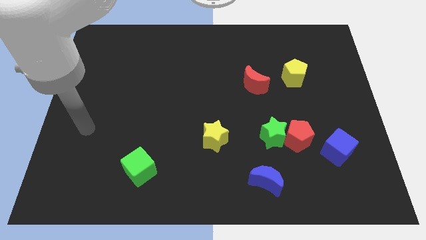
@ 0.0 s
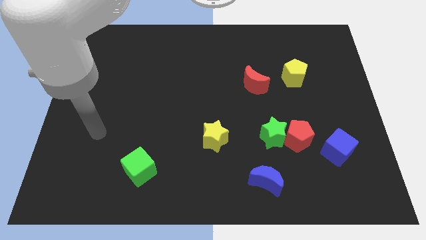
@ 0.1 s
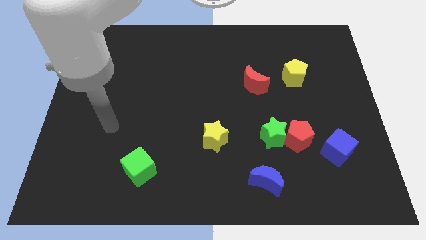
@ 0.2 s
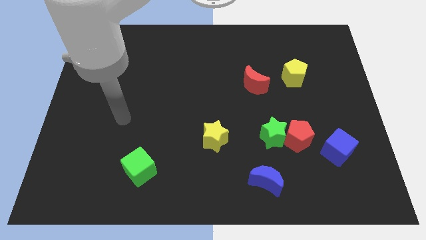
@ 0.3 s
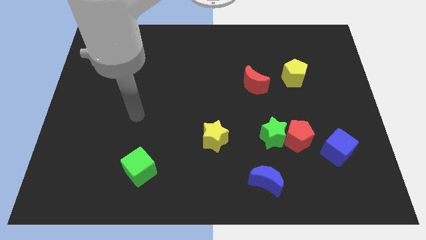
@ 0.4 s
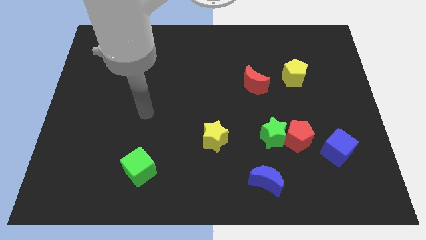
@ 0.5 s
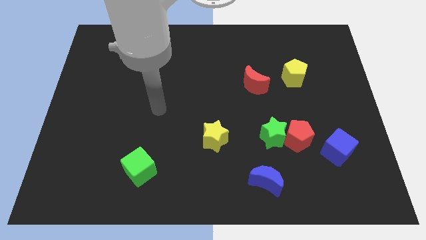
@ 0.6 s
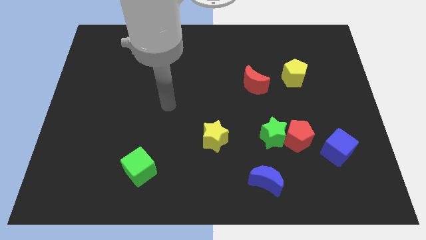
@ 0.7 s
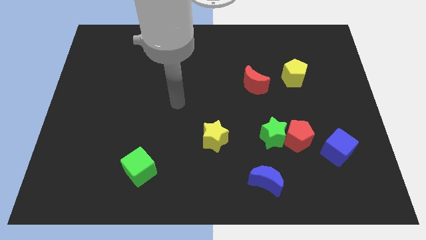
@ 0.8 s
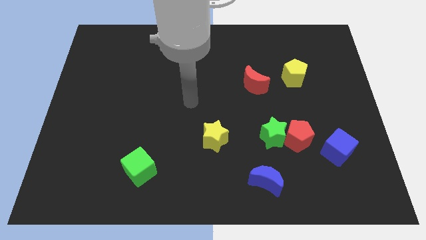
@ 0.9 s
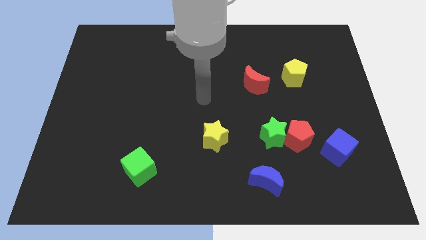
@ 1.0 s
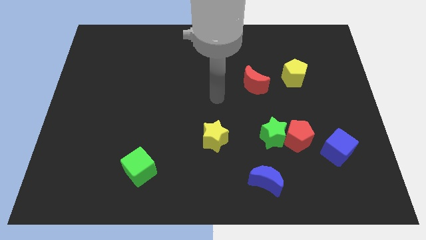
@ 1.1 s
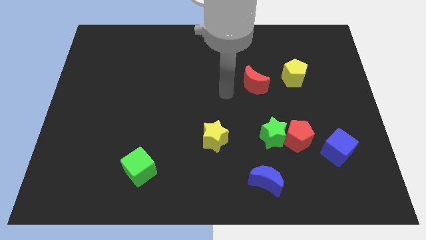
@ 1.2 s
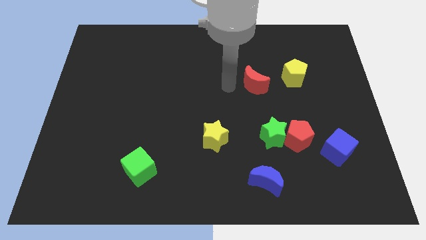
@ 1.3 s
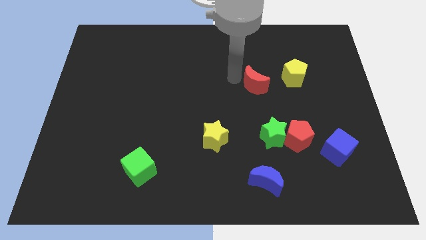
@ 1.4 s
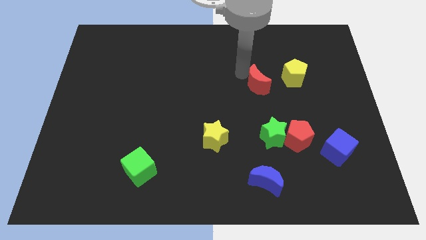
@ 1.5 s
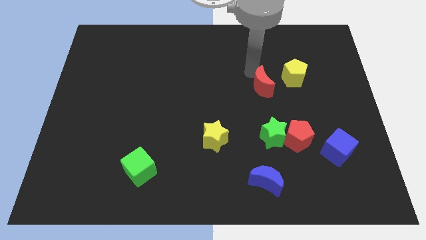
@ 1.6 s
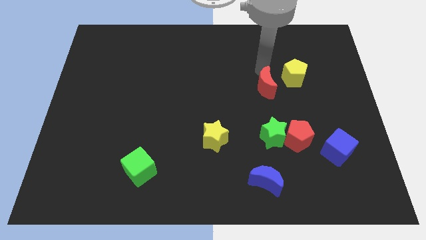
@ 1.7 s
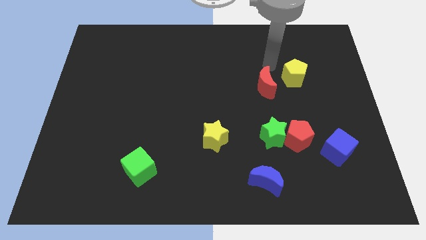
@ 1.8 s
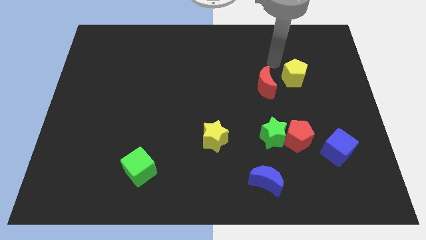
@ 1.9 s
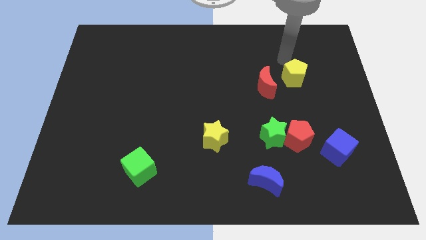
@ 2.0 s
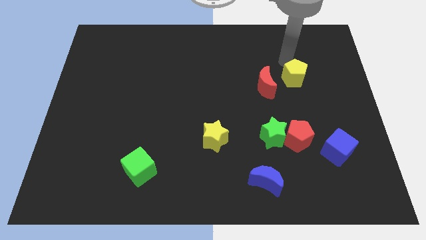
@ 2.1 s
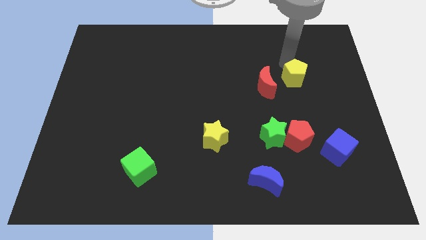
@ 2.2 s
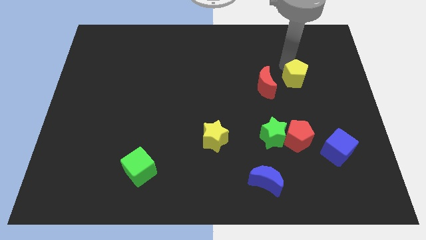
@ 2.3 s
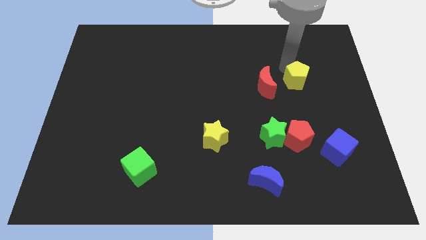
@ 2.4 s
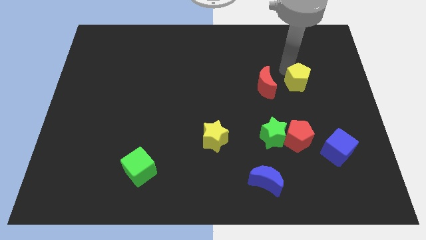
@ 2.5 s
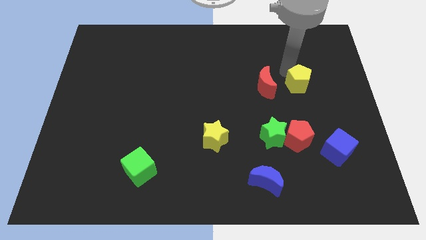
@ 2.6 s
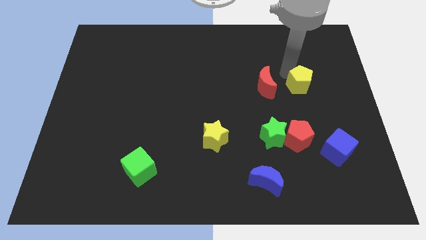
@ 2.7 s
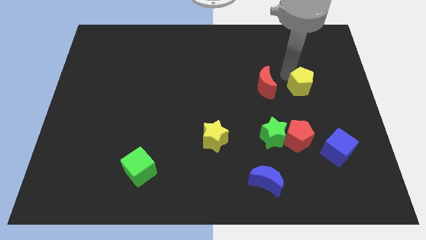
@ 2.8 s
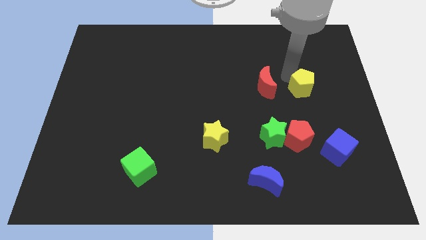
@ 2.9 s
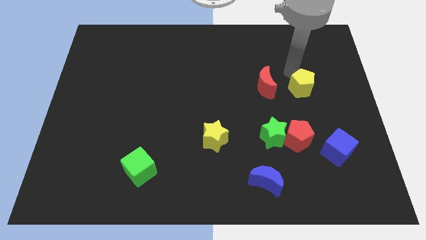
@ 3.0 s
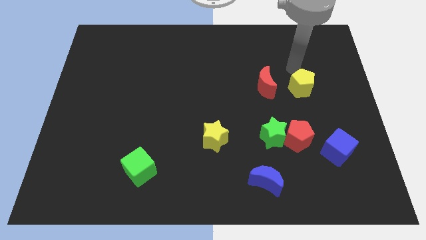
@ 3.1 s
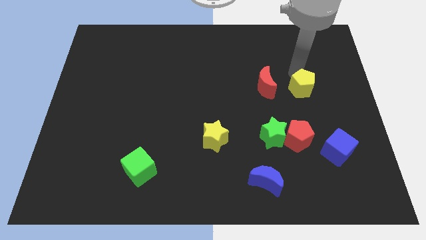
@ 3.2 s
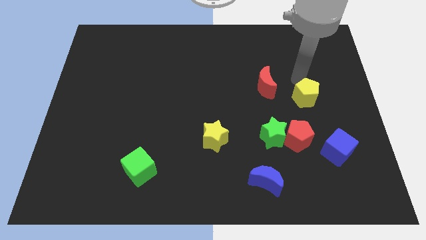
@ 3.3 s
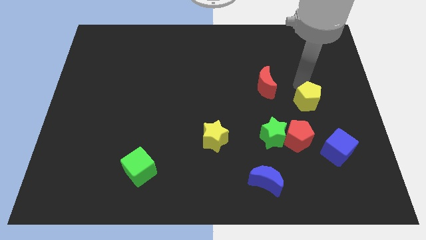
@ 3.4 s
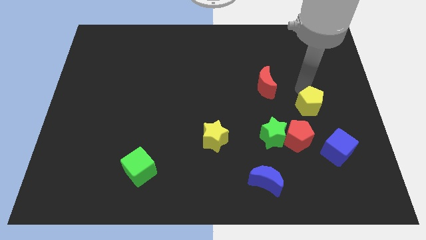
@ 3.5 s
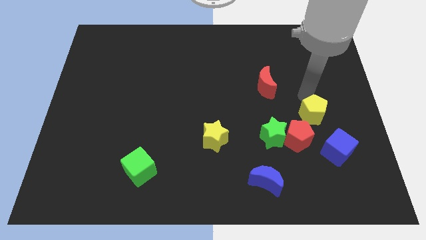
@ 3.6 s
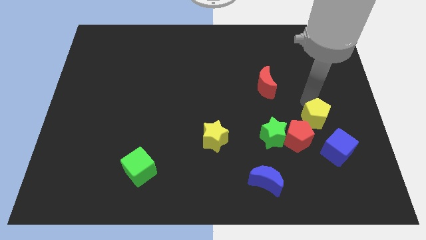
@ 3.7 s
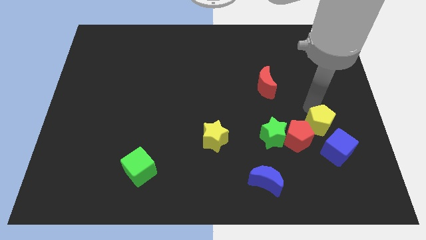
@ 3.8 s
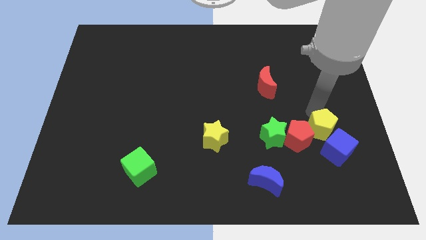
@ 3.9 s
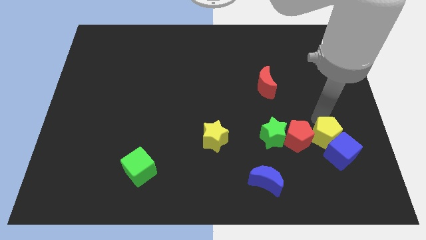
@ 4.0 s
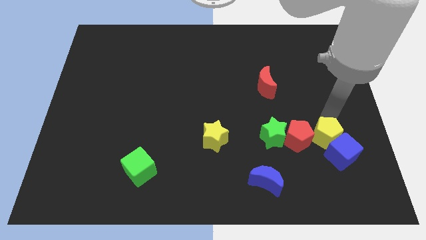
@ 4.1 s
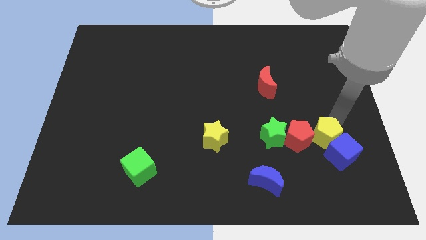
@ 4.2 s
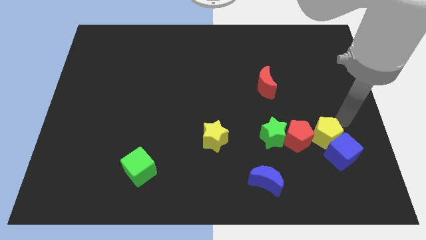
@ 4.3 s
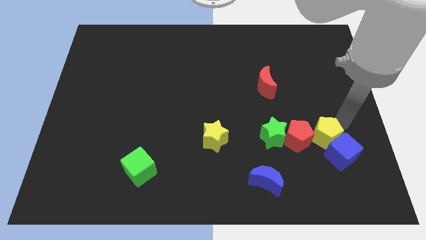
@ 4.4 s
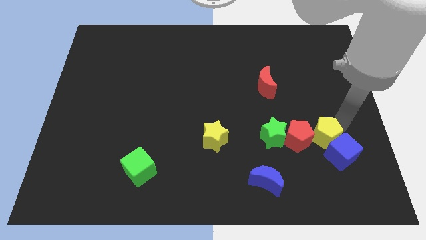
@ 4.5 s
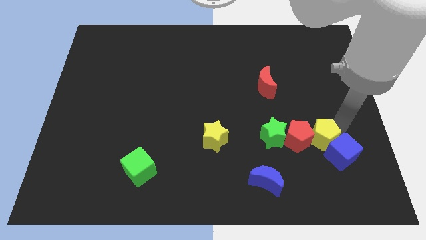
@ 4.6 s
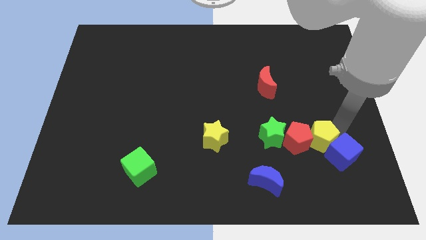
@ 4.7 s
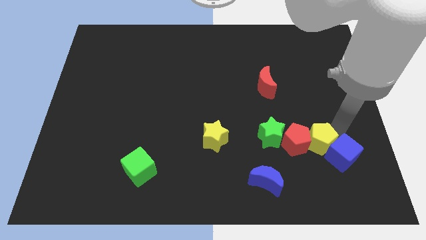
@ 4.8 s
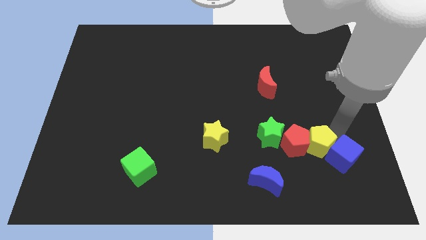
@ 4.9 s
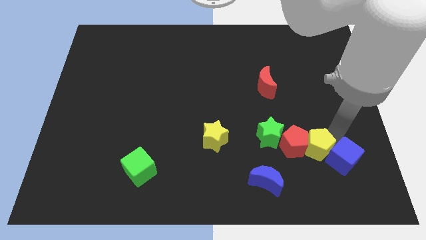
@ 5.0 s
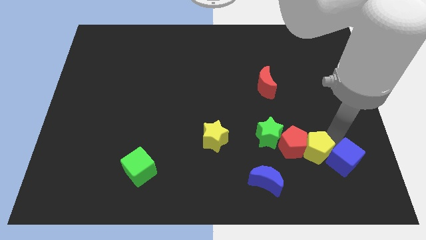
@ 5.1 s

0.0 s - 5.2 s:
push the yellow pentagon to the bottom right of the green star

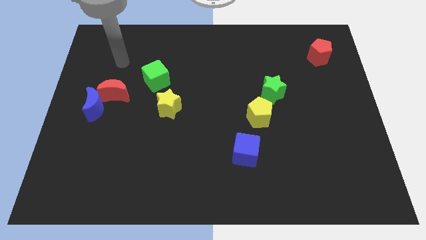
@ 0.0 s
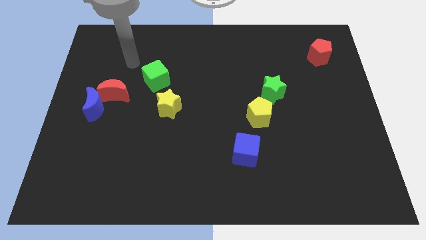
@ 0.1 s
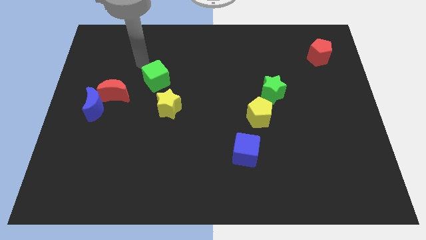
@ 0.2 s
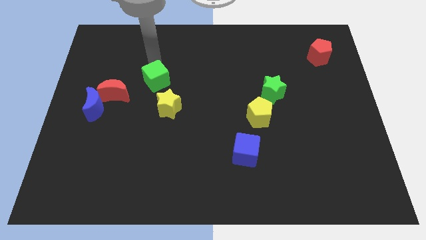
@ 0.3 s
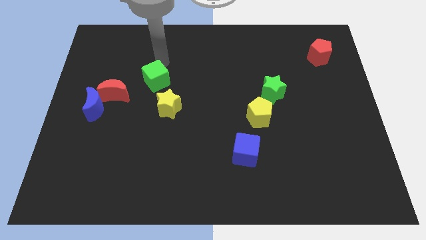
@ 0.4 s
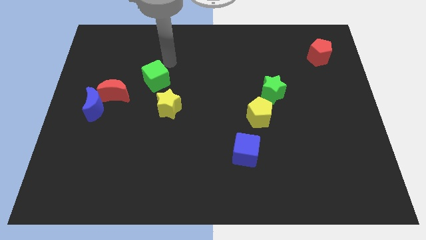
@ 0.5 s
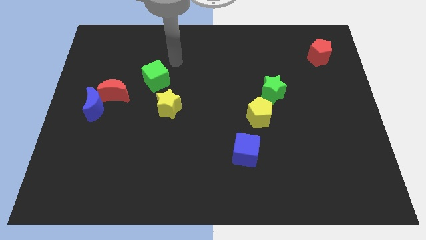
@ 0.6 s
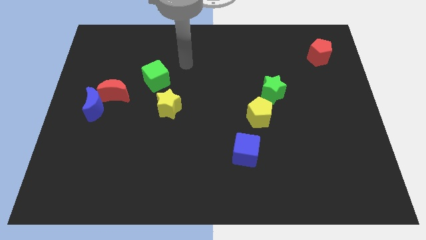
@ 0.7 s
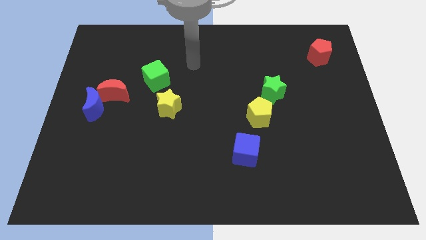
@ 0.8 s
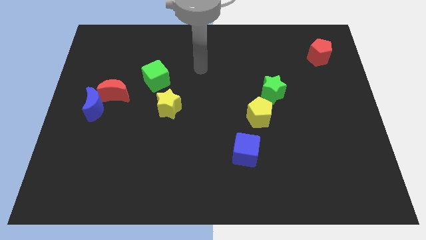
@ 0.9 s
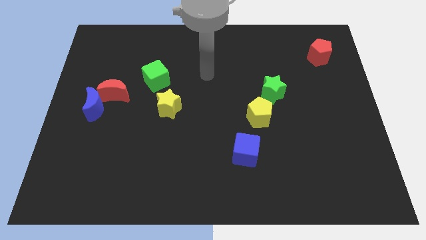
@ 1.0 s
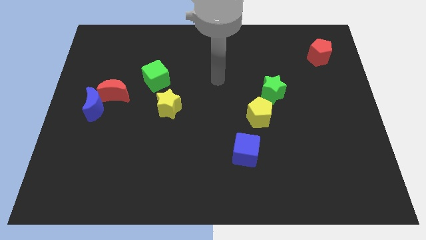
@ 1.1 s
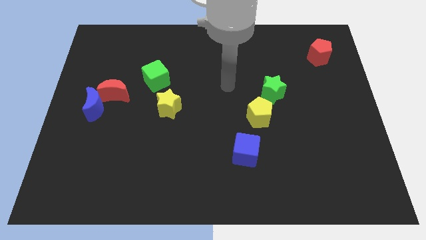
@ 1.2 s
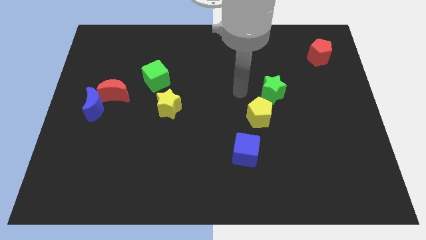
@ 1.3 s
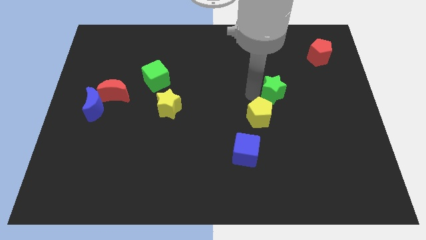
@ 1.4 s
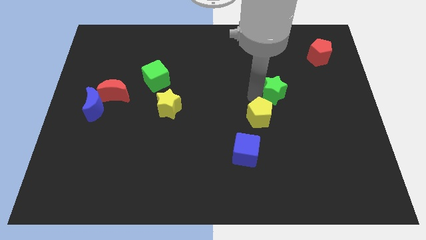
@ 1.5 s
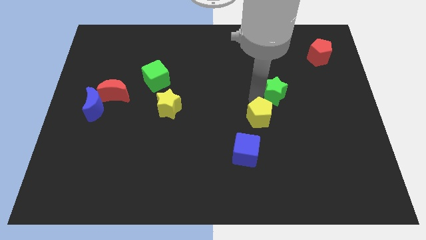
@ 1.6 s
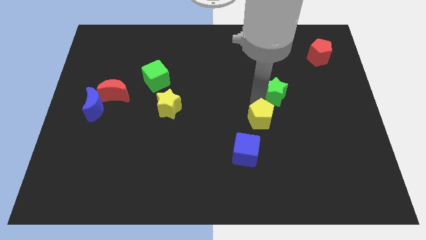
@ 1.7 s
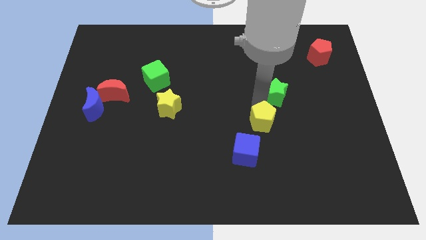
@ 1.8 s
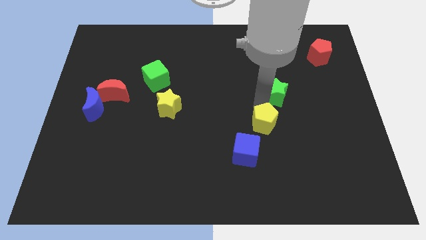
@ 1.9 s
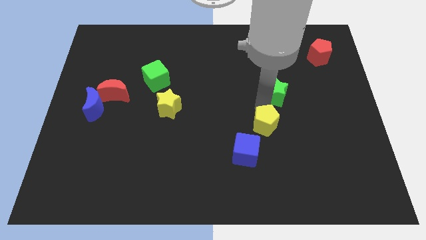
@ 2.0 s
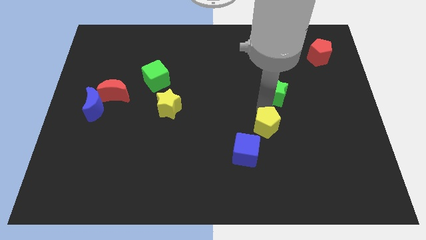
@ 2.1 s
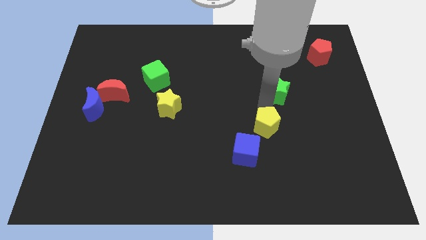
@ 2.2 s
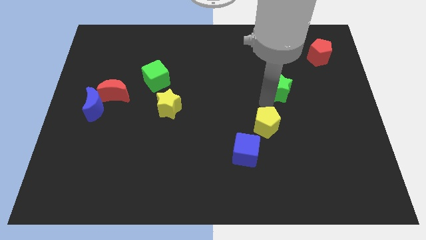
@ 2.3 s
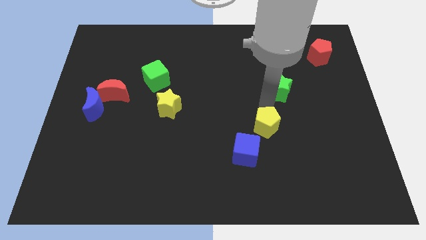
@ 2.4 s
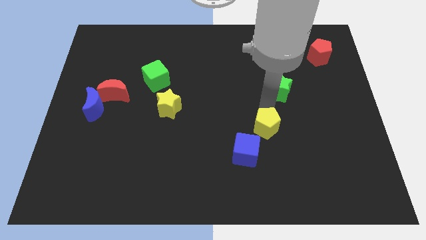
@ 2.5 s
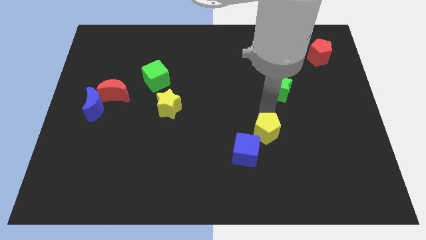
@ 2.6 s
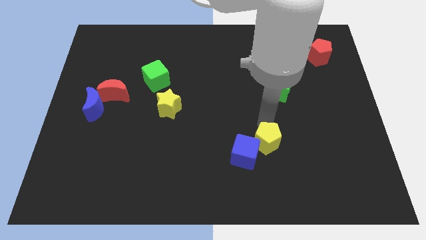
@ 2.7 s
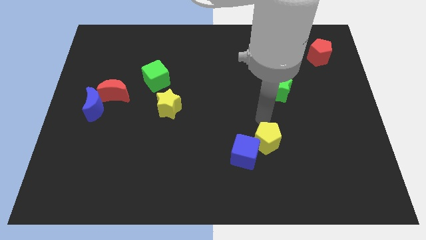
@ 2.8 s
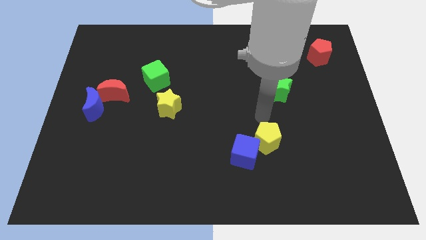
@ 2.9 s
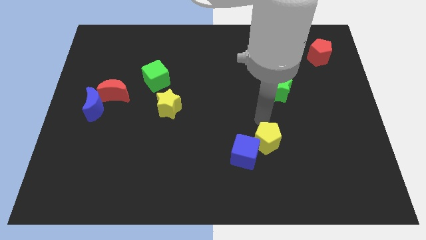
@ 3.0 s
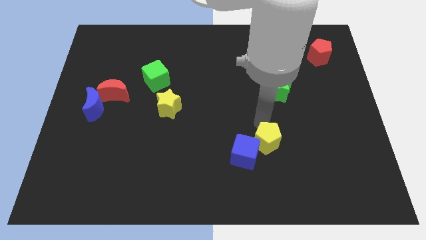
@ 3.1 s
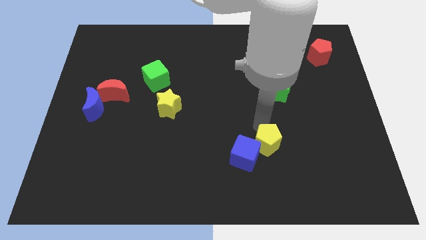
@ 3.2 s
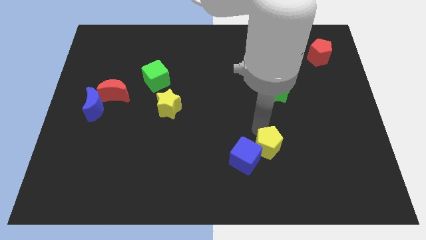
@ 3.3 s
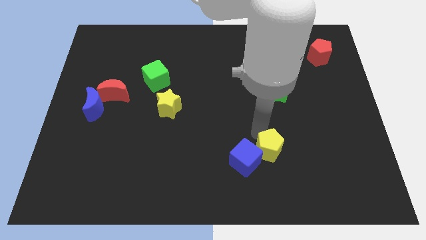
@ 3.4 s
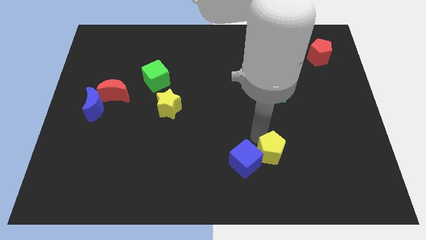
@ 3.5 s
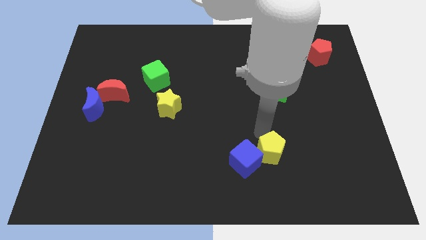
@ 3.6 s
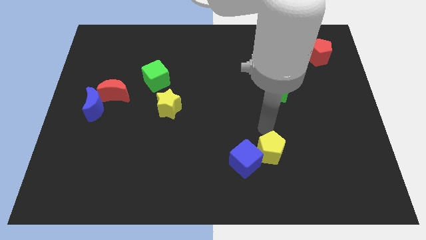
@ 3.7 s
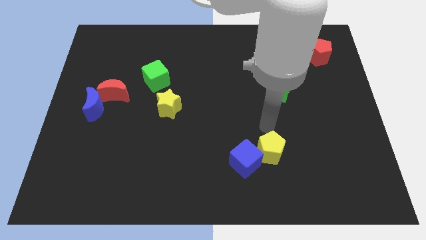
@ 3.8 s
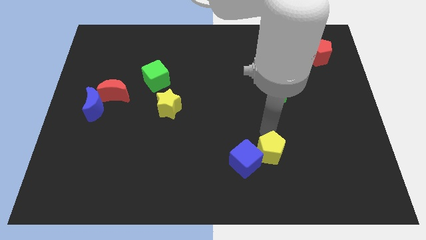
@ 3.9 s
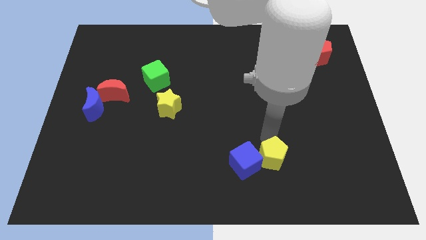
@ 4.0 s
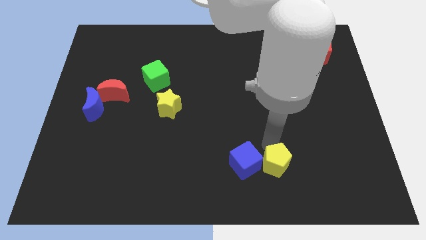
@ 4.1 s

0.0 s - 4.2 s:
slide the yellow pentagon to the bottom right side of the blue cube
